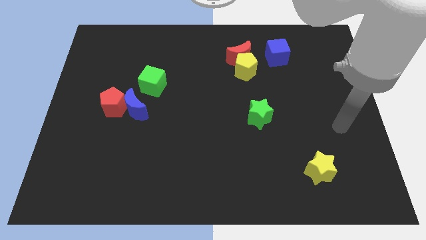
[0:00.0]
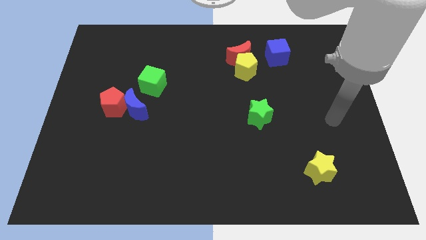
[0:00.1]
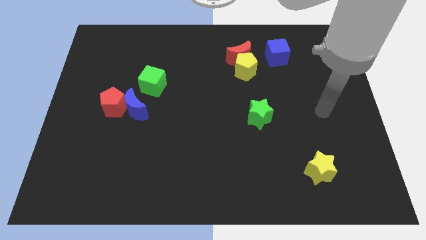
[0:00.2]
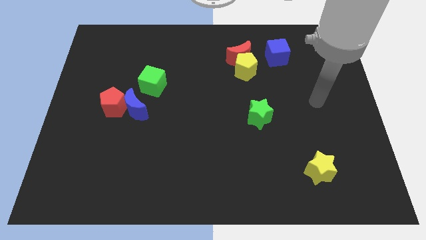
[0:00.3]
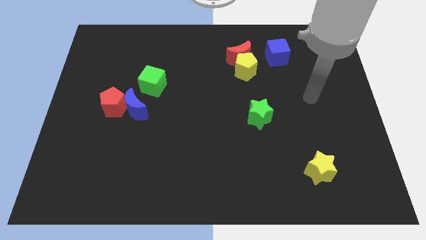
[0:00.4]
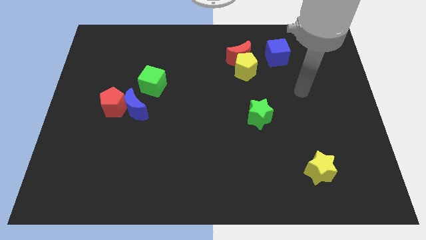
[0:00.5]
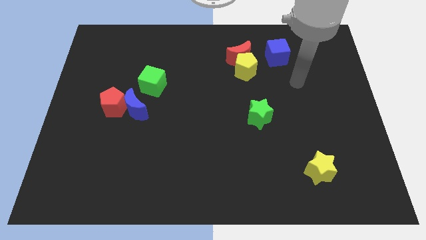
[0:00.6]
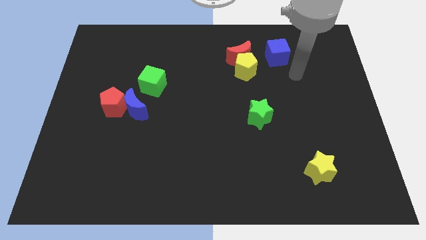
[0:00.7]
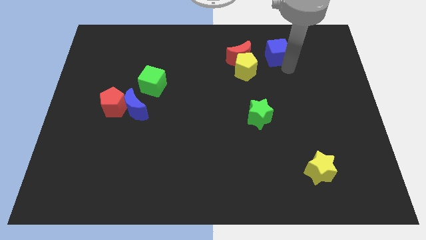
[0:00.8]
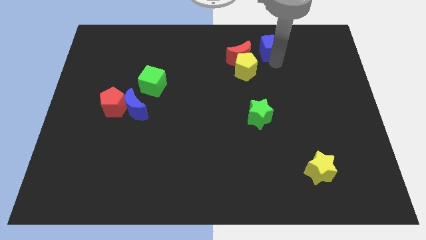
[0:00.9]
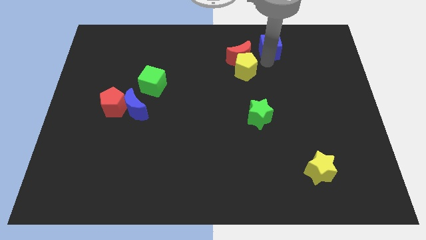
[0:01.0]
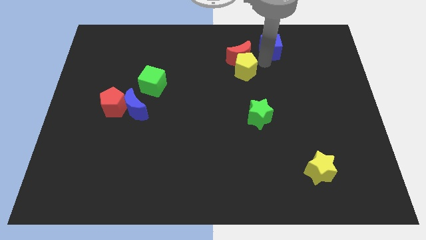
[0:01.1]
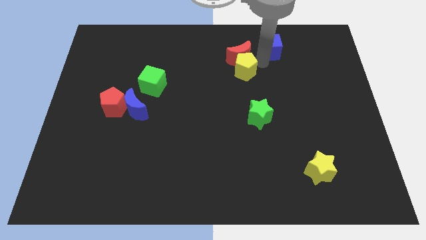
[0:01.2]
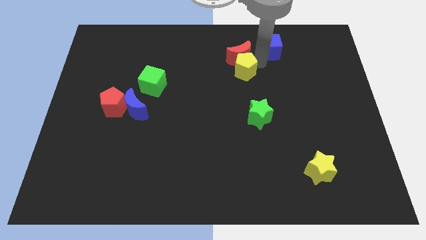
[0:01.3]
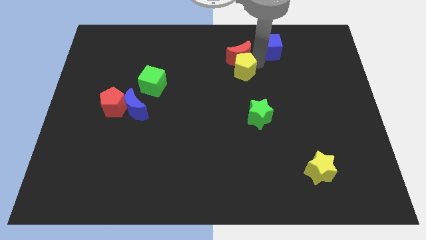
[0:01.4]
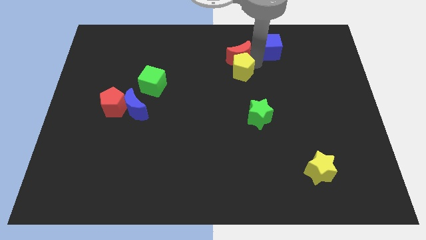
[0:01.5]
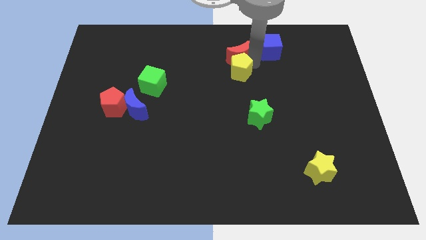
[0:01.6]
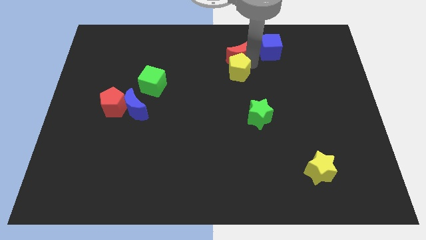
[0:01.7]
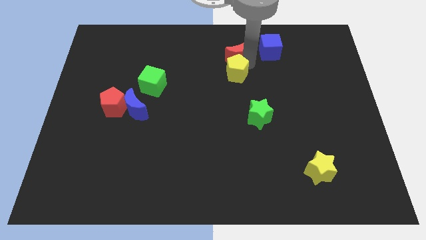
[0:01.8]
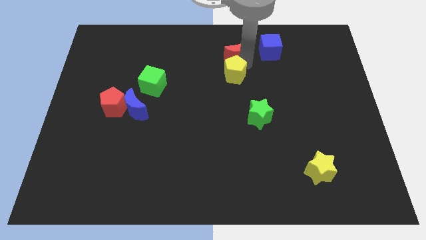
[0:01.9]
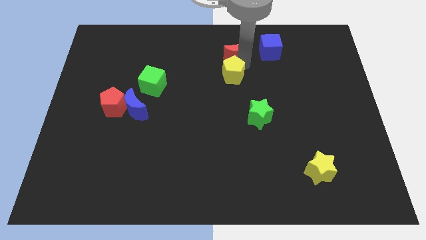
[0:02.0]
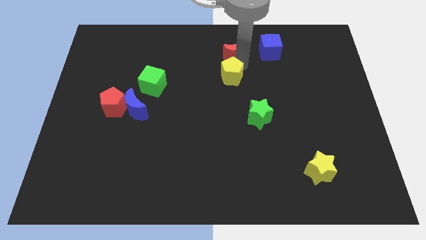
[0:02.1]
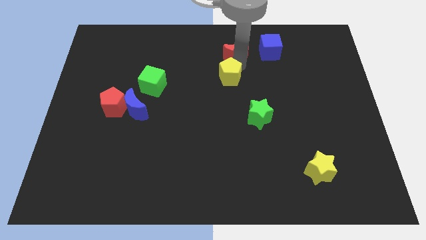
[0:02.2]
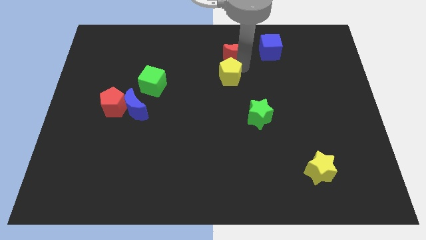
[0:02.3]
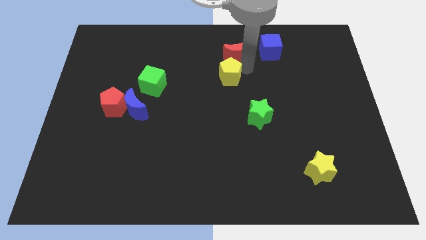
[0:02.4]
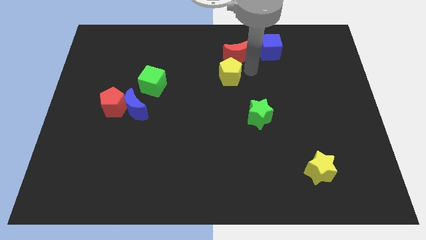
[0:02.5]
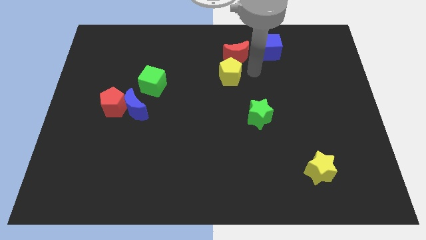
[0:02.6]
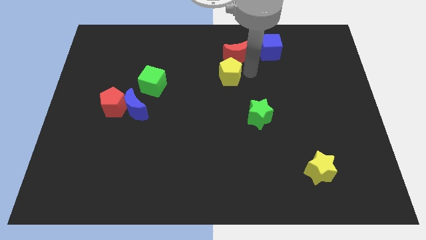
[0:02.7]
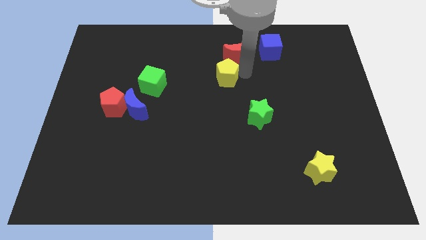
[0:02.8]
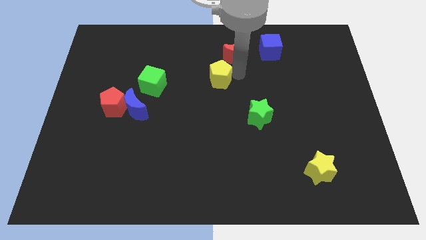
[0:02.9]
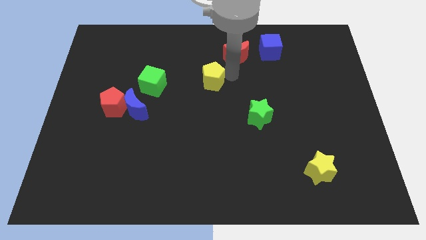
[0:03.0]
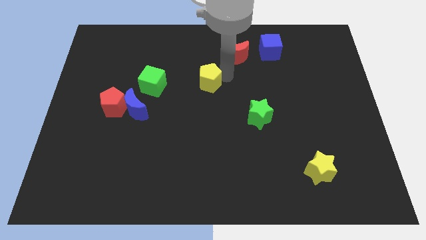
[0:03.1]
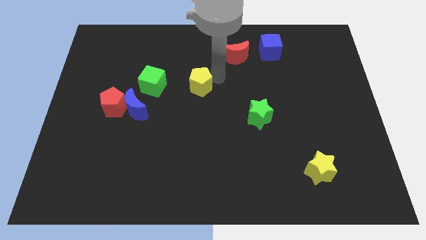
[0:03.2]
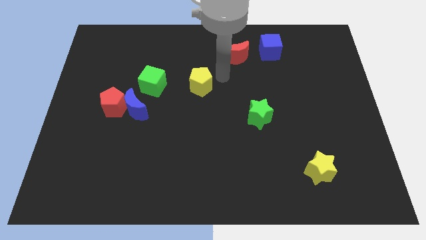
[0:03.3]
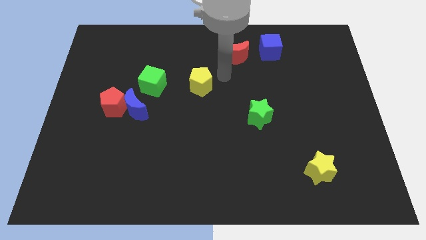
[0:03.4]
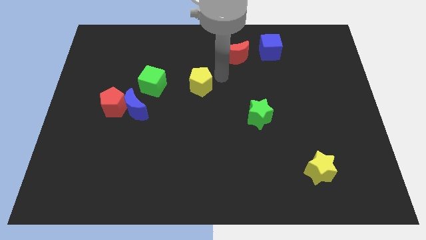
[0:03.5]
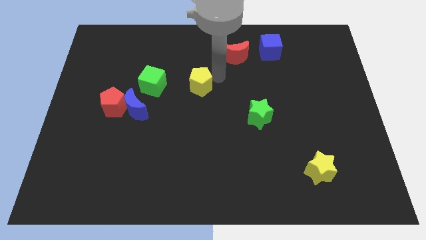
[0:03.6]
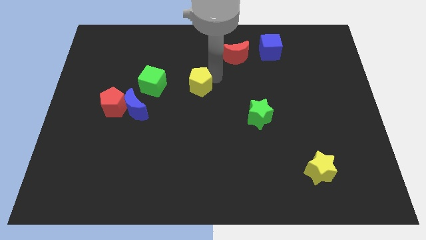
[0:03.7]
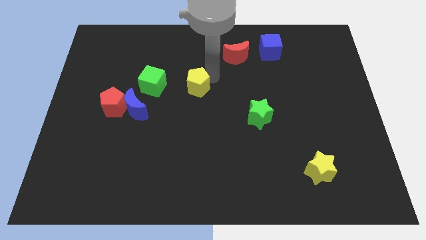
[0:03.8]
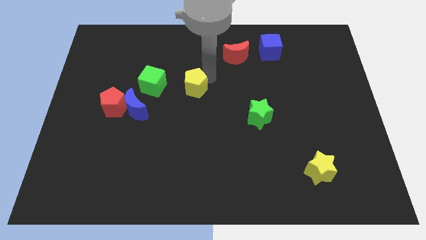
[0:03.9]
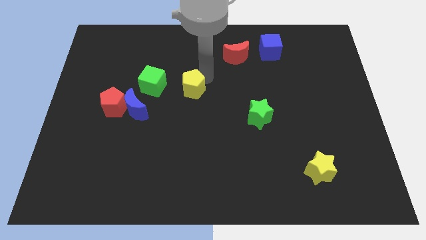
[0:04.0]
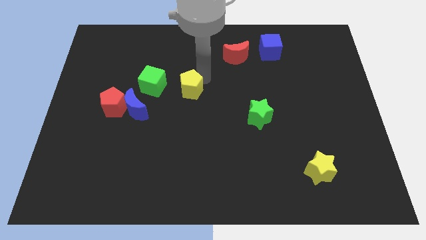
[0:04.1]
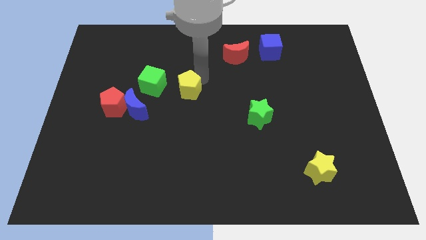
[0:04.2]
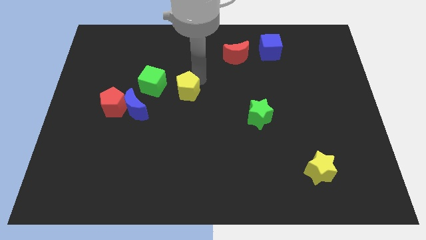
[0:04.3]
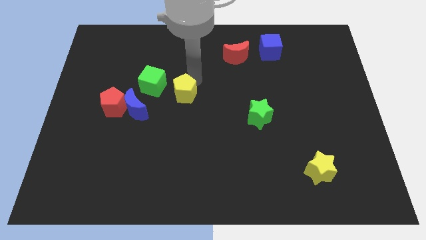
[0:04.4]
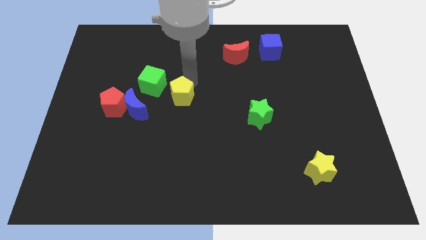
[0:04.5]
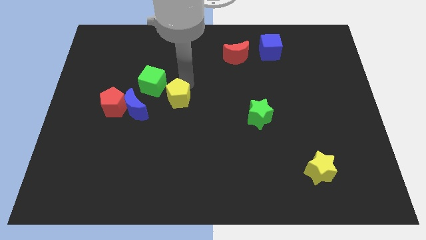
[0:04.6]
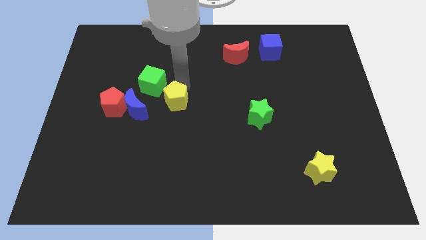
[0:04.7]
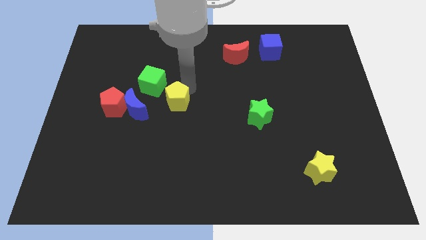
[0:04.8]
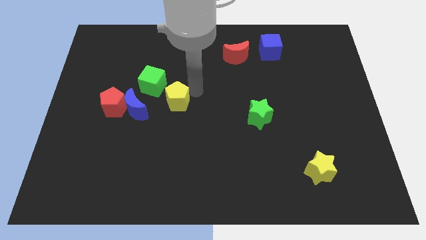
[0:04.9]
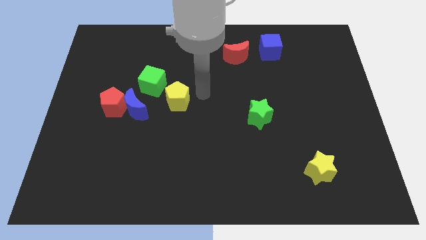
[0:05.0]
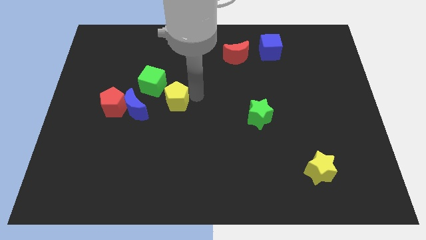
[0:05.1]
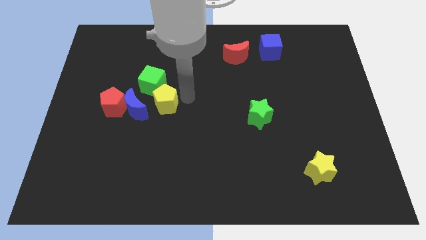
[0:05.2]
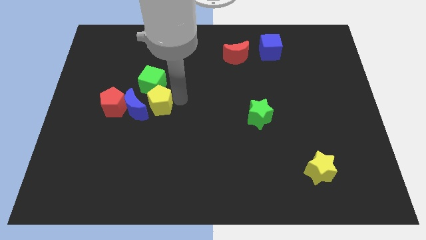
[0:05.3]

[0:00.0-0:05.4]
slide the yellow pentagon to the blue moon

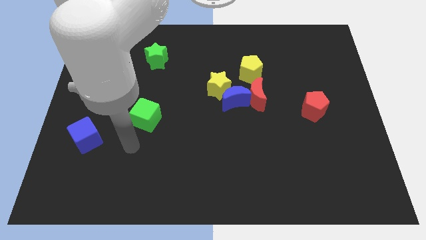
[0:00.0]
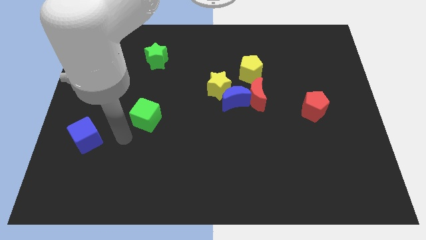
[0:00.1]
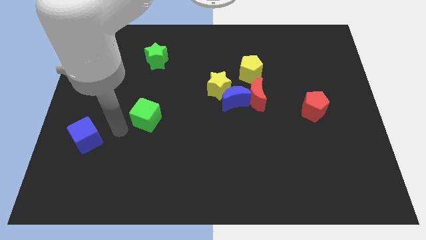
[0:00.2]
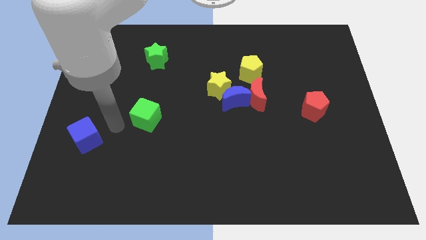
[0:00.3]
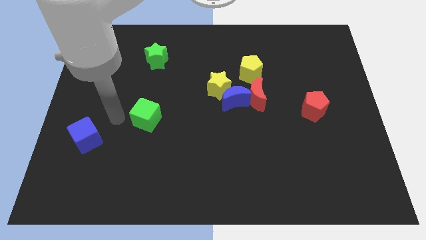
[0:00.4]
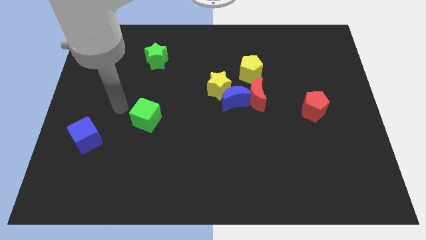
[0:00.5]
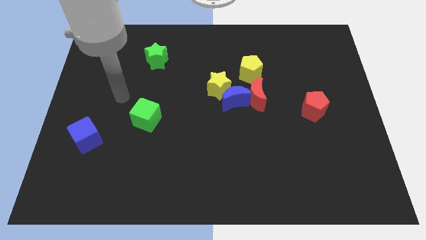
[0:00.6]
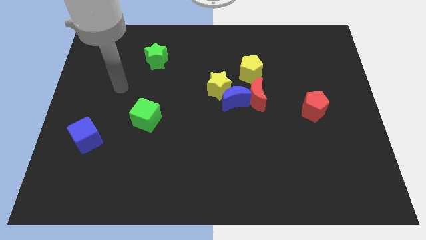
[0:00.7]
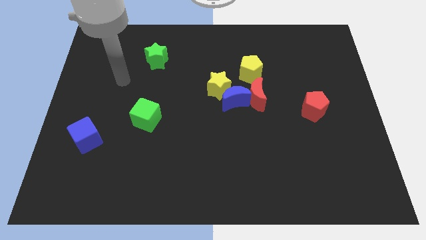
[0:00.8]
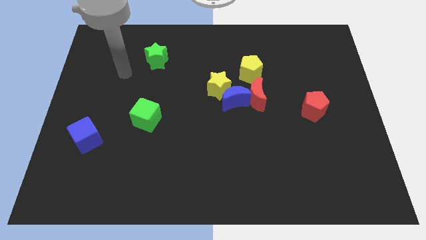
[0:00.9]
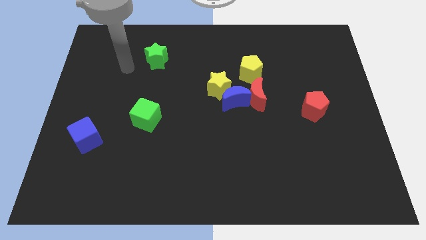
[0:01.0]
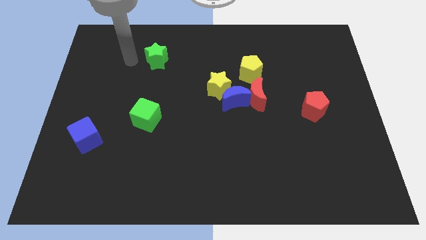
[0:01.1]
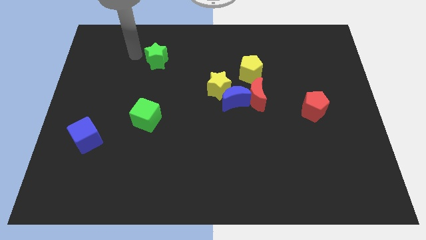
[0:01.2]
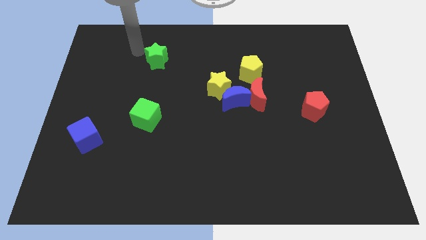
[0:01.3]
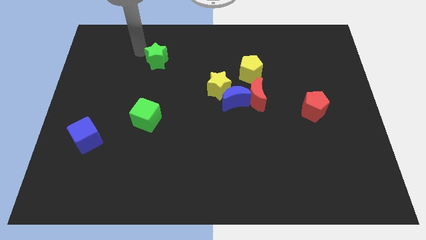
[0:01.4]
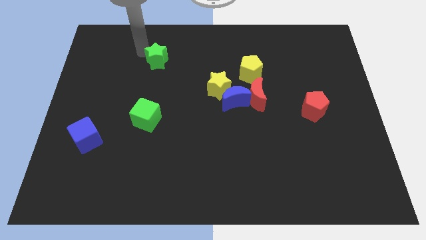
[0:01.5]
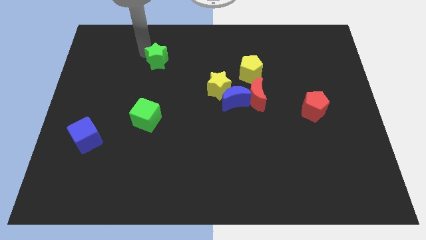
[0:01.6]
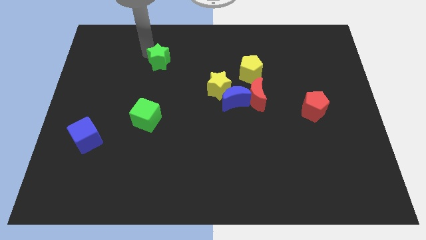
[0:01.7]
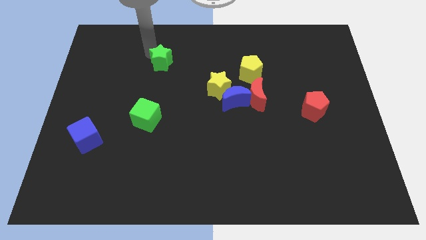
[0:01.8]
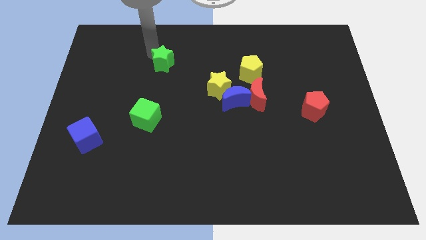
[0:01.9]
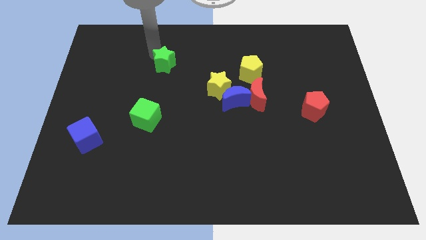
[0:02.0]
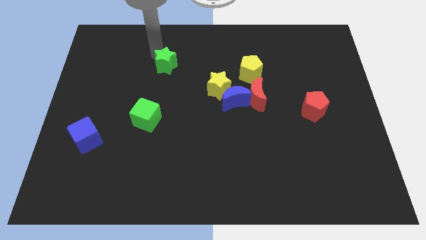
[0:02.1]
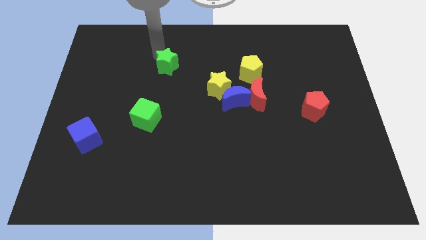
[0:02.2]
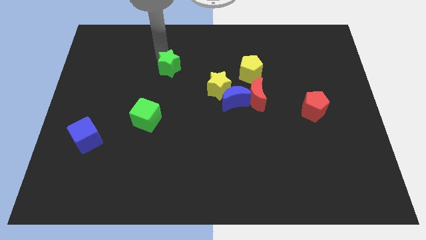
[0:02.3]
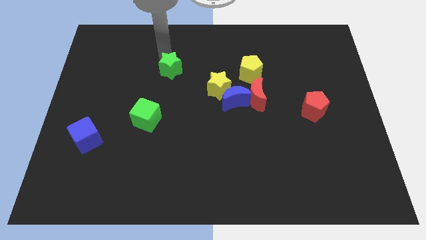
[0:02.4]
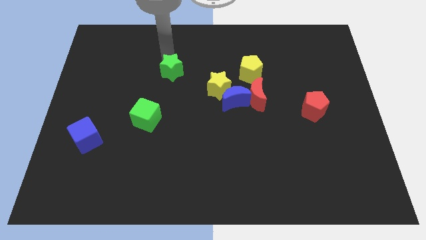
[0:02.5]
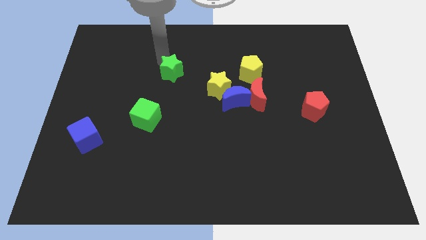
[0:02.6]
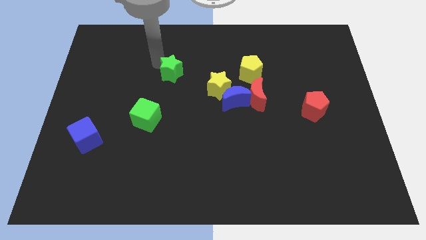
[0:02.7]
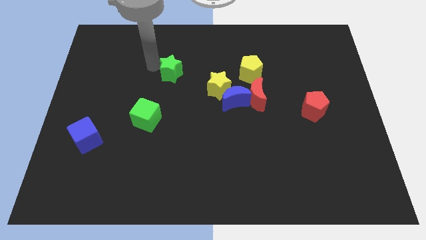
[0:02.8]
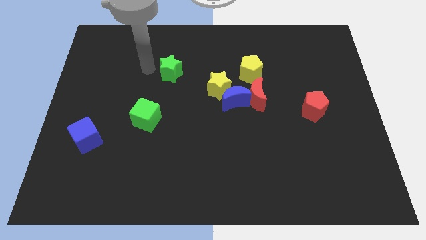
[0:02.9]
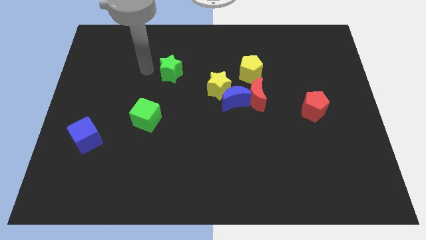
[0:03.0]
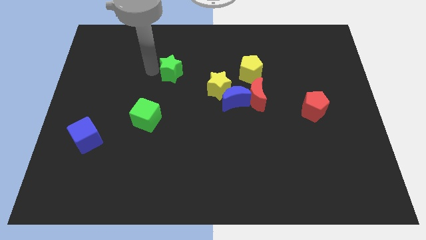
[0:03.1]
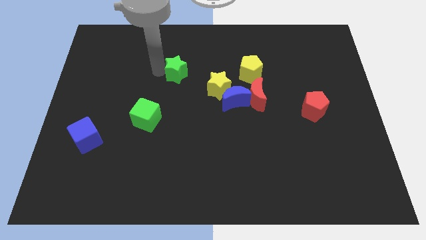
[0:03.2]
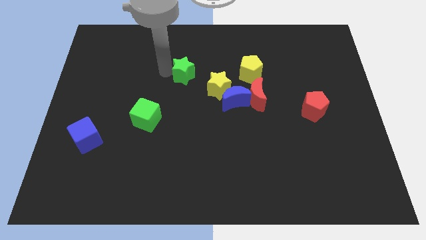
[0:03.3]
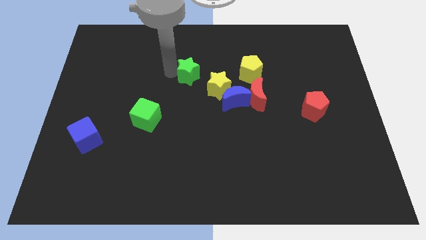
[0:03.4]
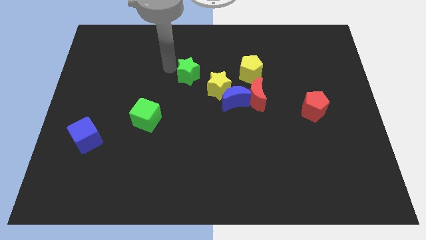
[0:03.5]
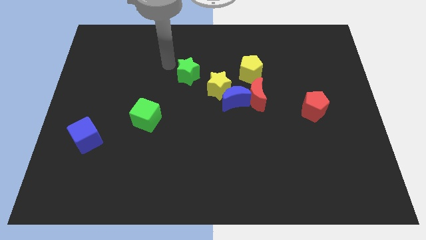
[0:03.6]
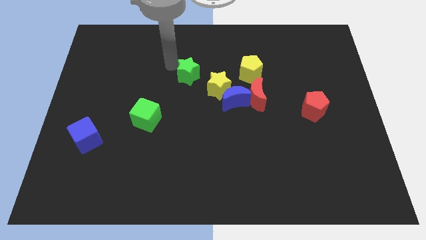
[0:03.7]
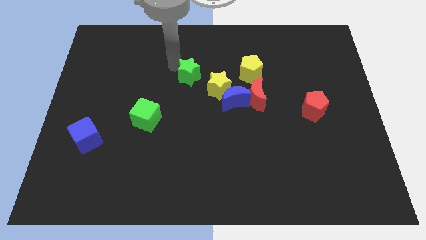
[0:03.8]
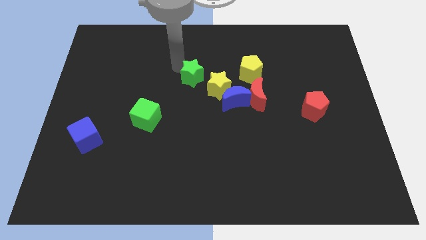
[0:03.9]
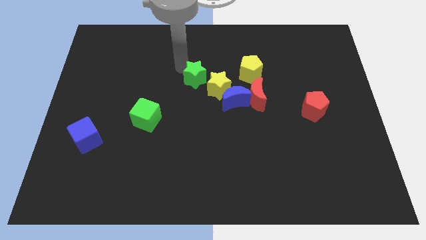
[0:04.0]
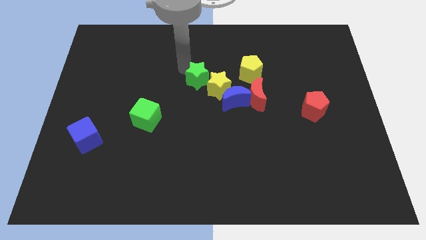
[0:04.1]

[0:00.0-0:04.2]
slide the green star close to the yellow star
